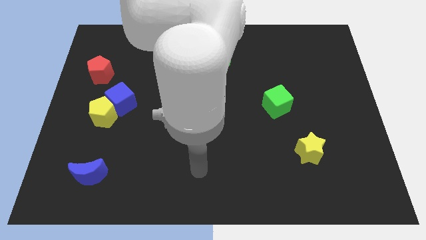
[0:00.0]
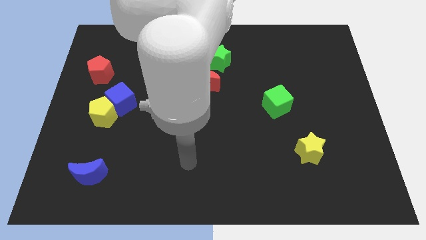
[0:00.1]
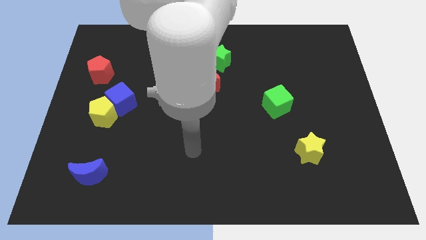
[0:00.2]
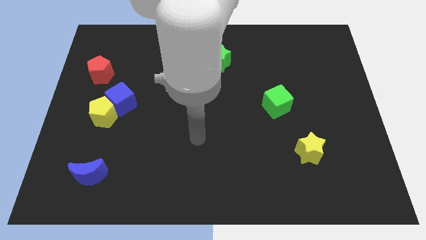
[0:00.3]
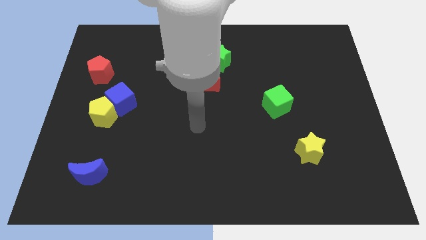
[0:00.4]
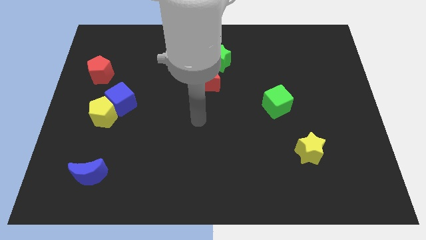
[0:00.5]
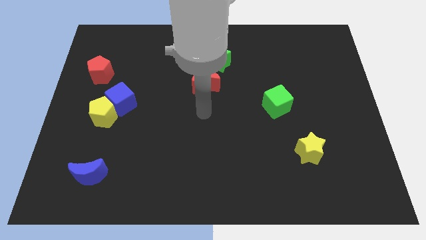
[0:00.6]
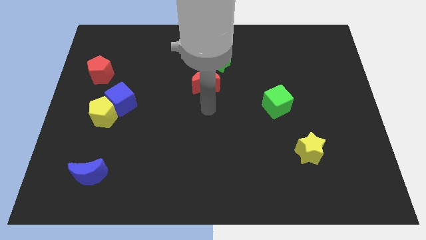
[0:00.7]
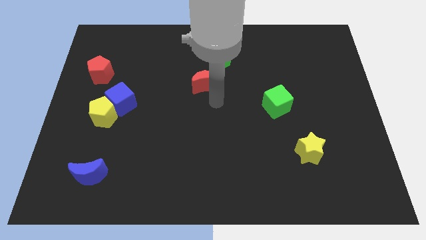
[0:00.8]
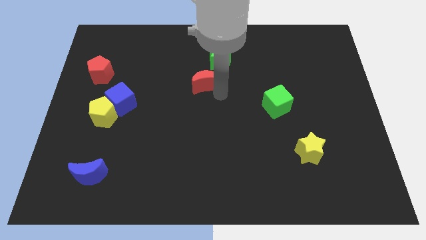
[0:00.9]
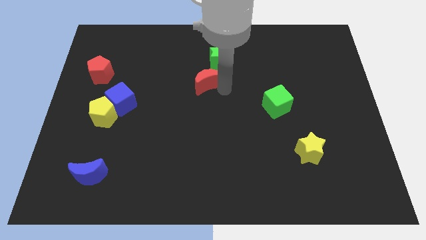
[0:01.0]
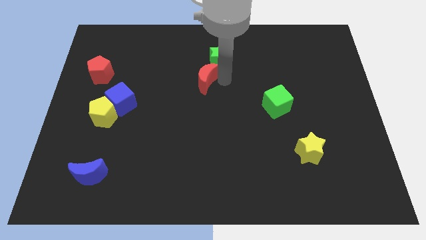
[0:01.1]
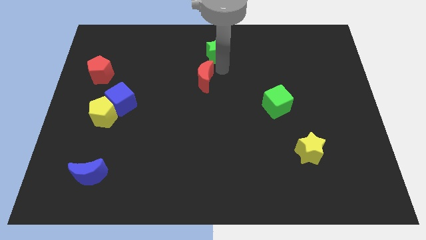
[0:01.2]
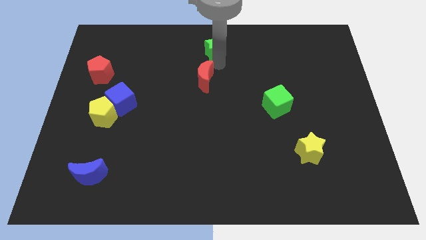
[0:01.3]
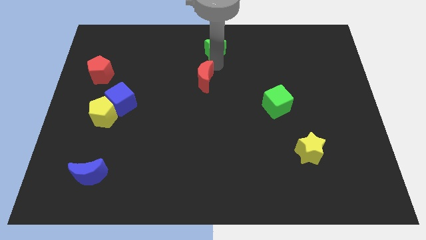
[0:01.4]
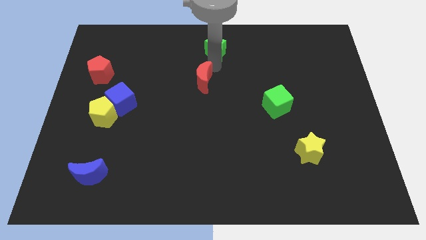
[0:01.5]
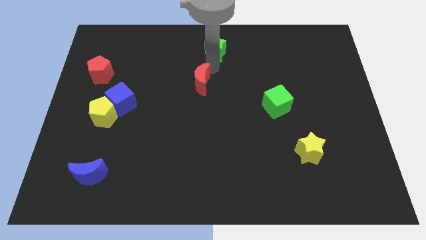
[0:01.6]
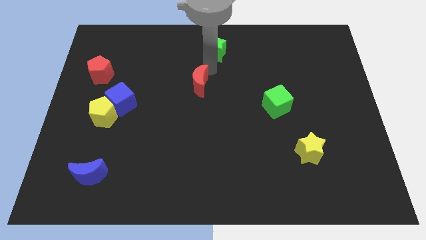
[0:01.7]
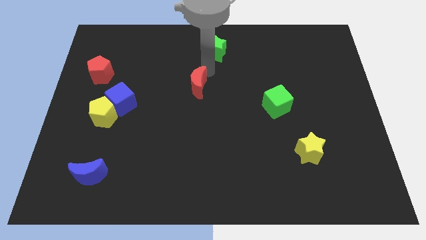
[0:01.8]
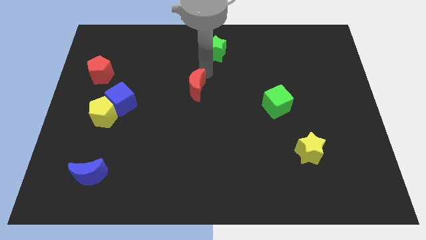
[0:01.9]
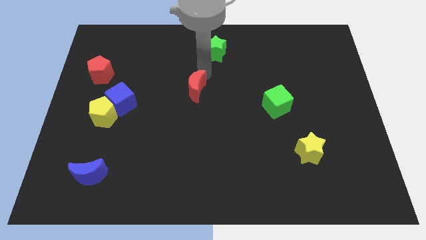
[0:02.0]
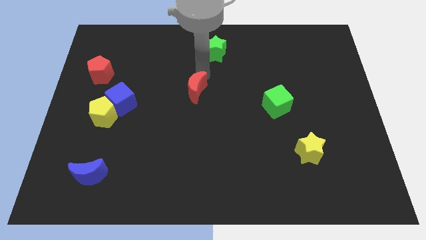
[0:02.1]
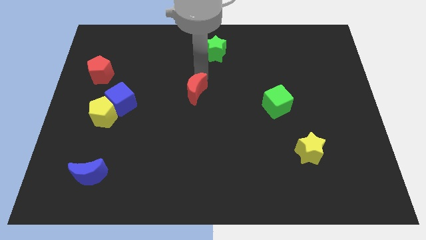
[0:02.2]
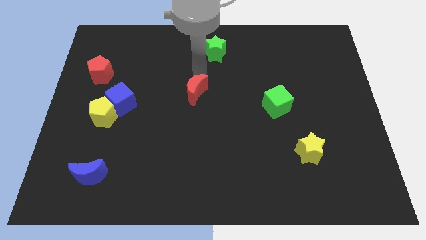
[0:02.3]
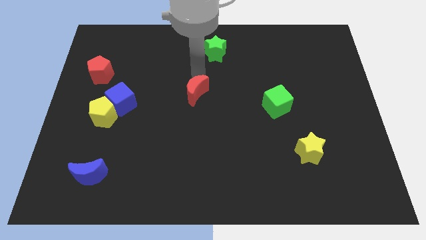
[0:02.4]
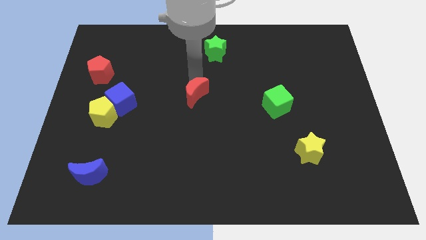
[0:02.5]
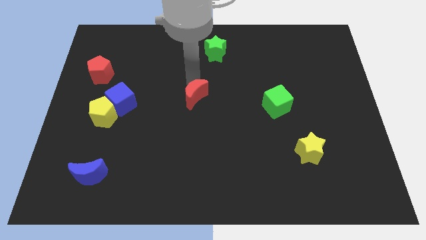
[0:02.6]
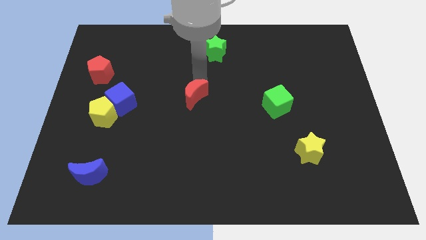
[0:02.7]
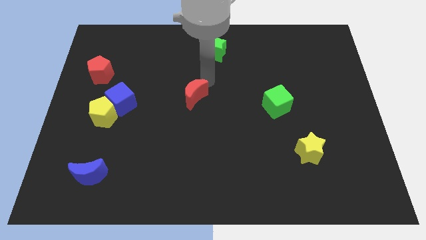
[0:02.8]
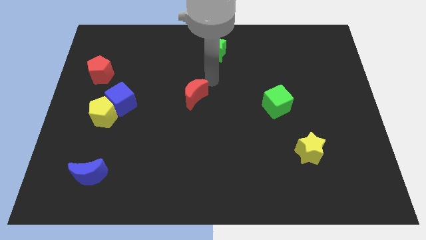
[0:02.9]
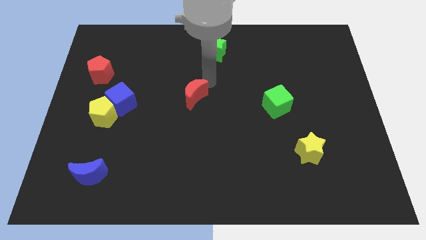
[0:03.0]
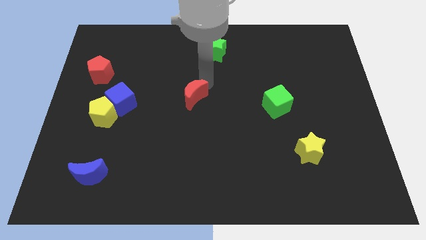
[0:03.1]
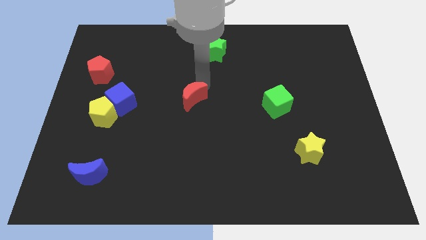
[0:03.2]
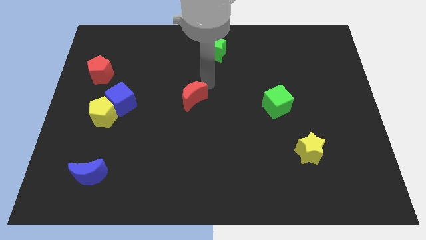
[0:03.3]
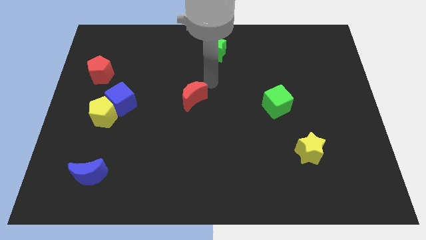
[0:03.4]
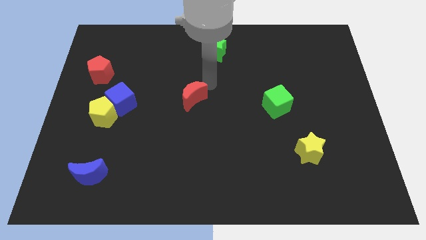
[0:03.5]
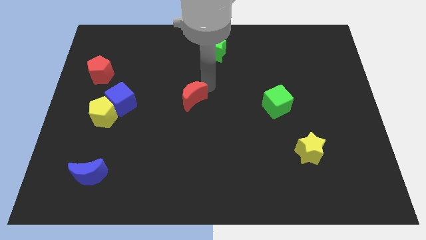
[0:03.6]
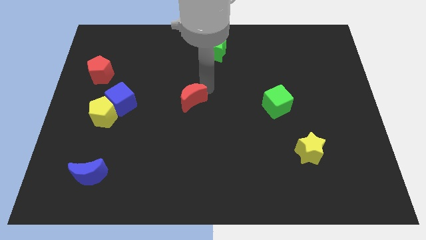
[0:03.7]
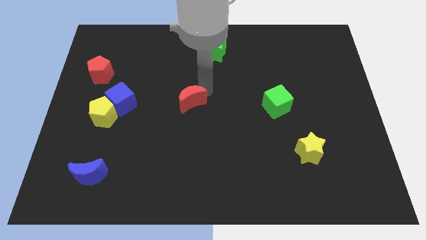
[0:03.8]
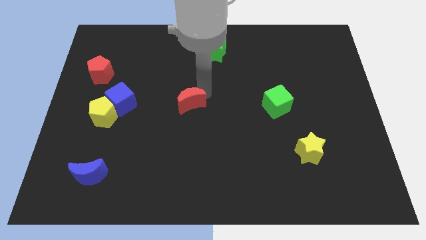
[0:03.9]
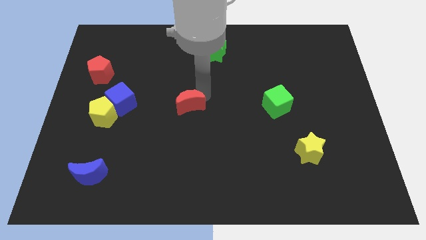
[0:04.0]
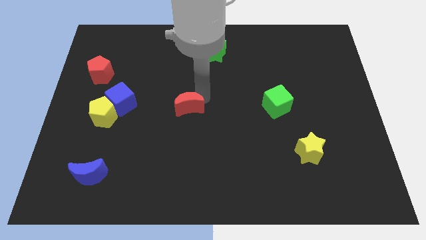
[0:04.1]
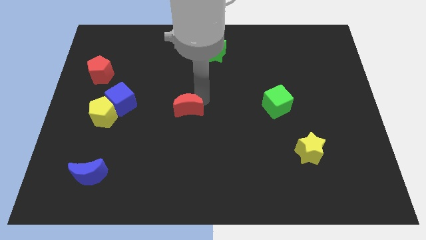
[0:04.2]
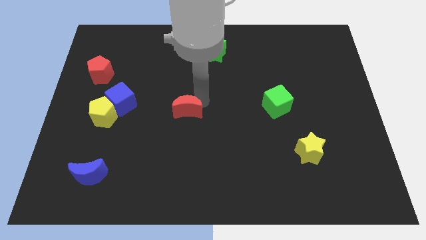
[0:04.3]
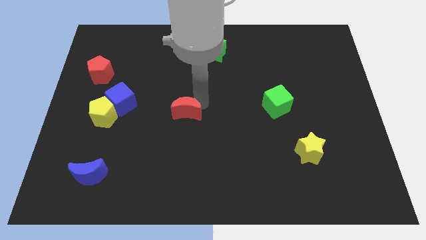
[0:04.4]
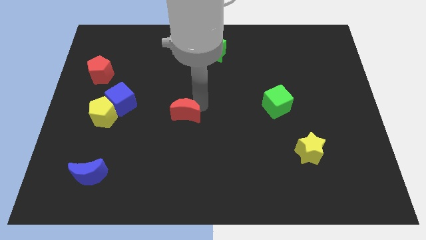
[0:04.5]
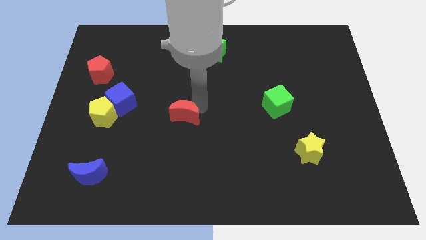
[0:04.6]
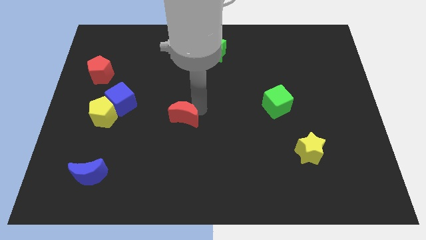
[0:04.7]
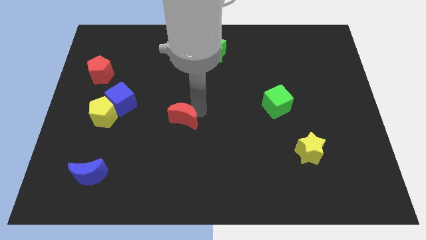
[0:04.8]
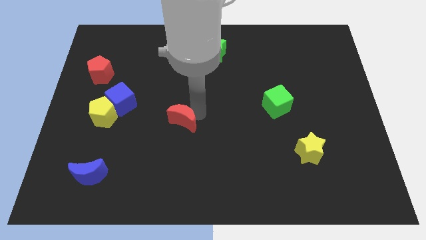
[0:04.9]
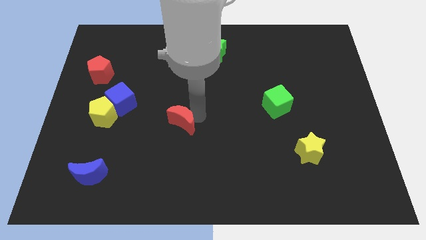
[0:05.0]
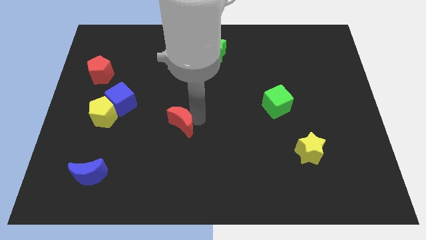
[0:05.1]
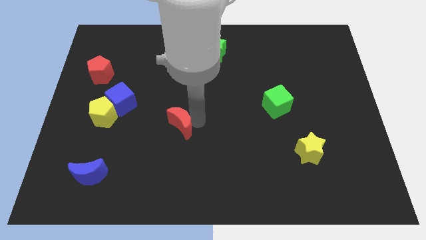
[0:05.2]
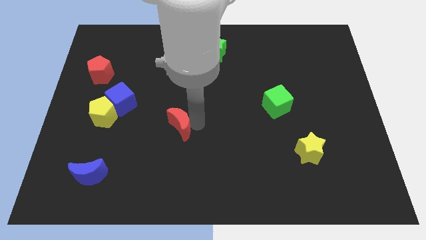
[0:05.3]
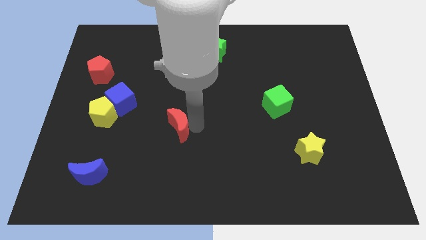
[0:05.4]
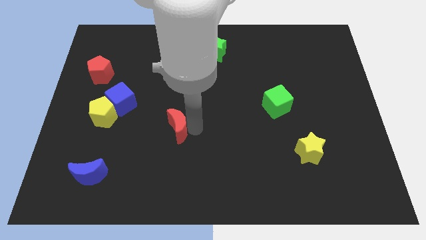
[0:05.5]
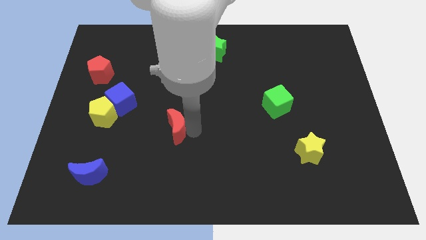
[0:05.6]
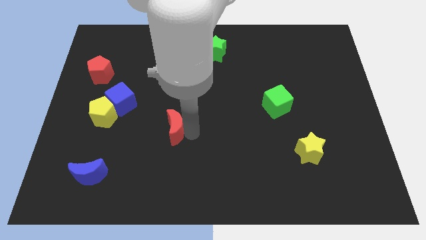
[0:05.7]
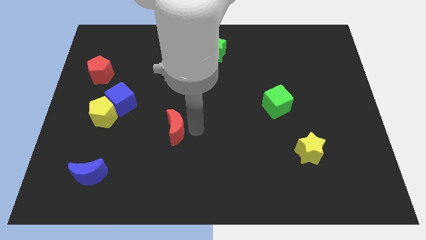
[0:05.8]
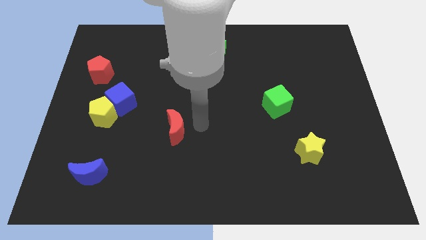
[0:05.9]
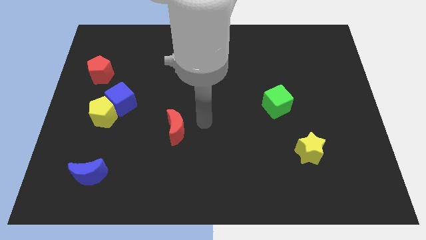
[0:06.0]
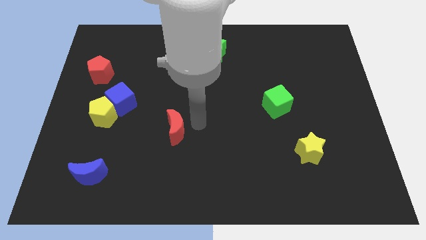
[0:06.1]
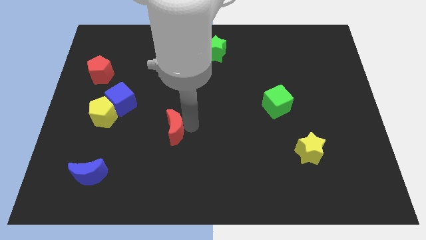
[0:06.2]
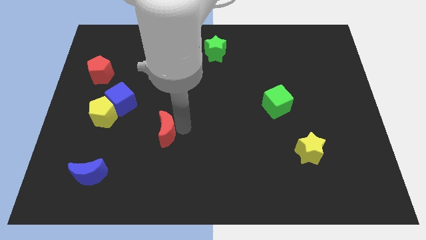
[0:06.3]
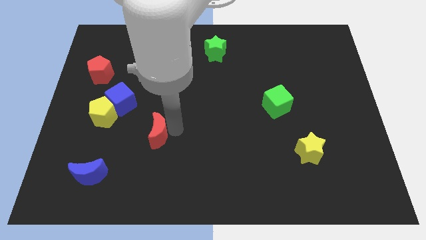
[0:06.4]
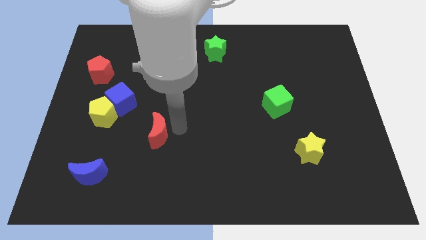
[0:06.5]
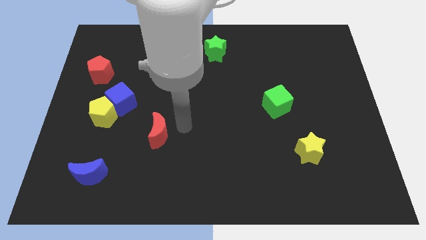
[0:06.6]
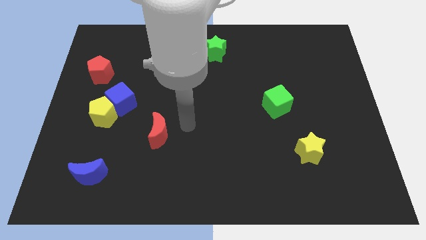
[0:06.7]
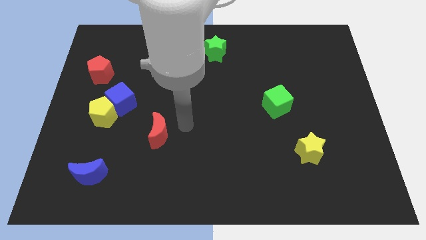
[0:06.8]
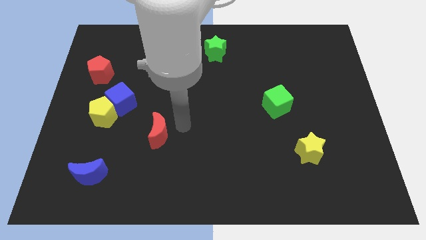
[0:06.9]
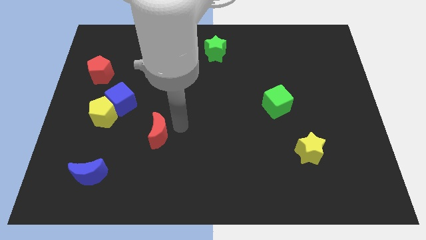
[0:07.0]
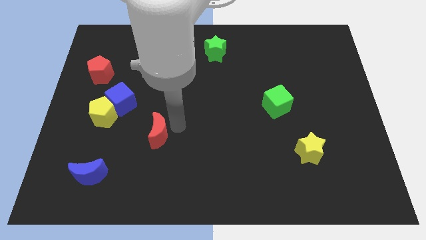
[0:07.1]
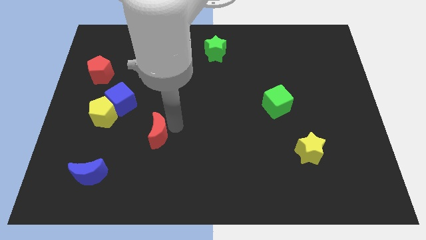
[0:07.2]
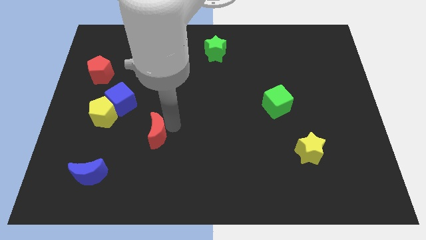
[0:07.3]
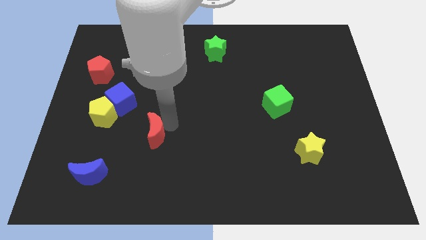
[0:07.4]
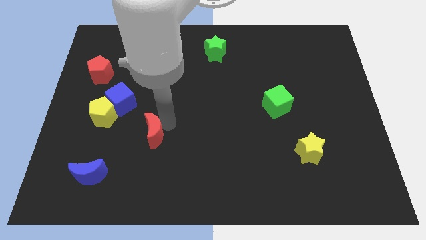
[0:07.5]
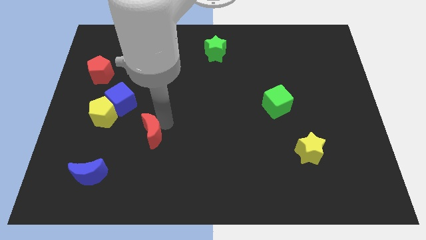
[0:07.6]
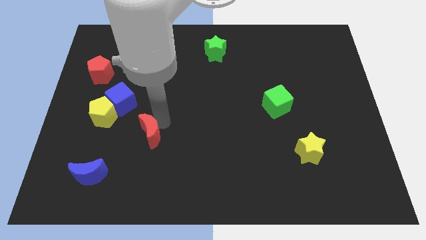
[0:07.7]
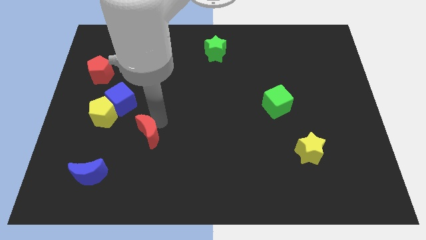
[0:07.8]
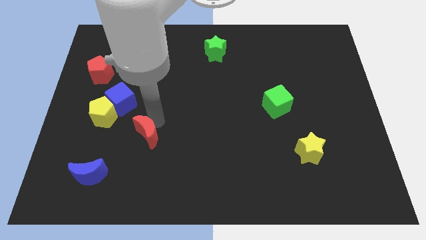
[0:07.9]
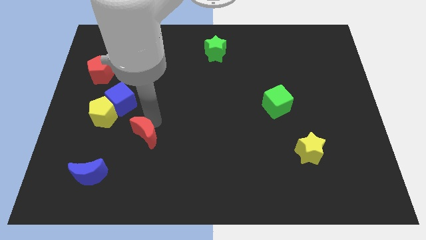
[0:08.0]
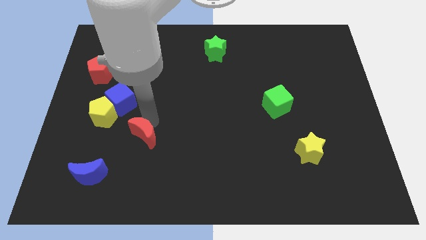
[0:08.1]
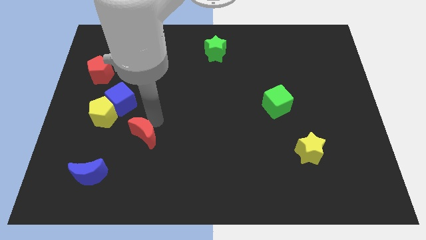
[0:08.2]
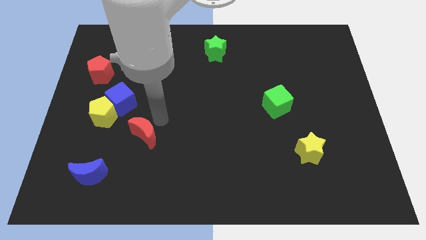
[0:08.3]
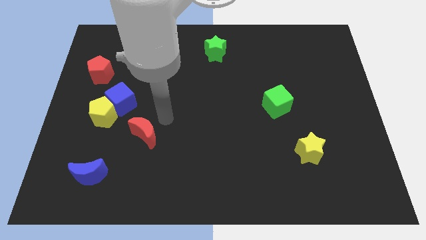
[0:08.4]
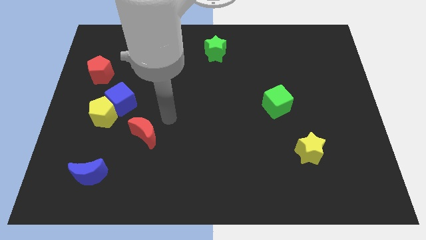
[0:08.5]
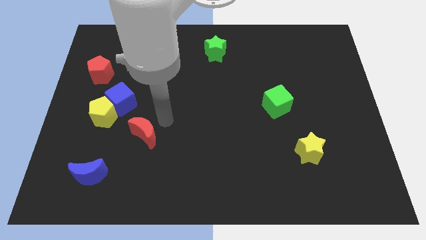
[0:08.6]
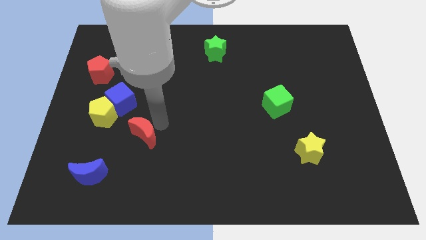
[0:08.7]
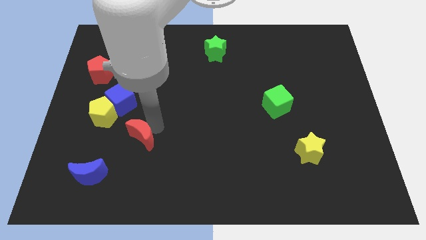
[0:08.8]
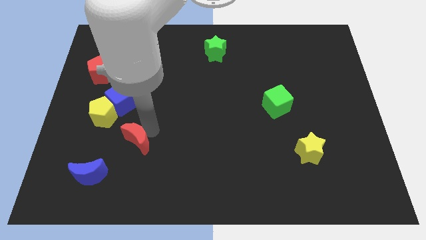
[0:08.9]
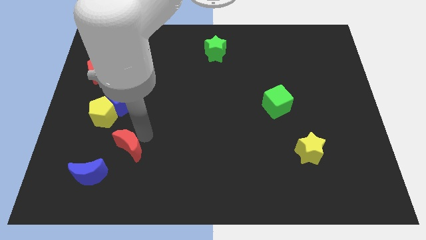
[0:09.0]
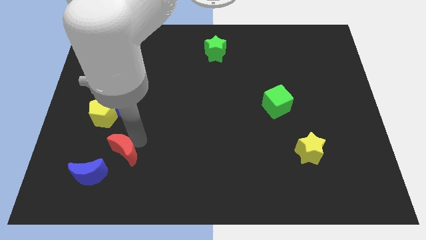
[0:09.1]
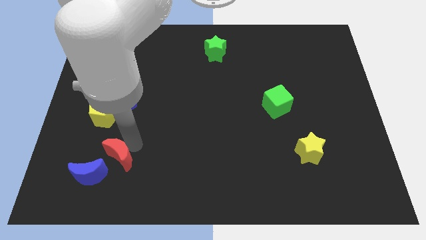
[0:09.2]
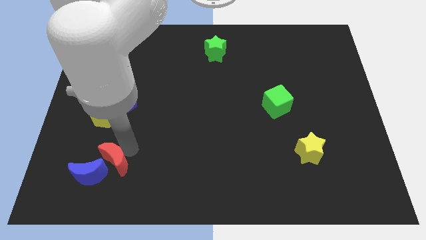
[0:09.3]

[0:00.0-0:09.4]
put the red moon next to the blue moon
